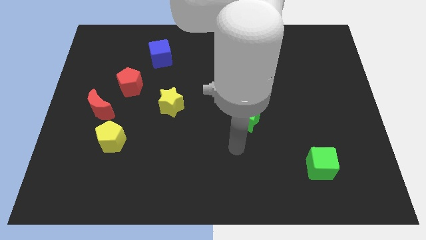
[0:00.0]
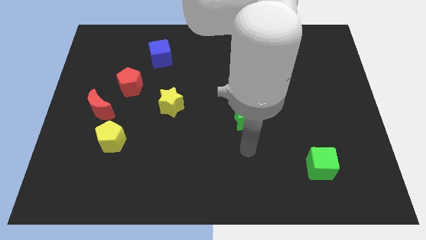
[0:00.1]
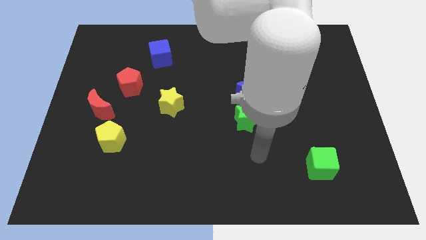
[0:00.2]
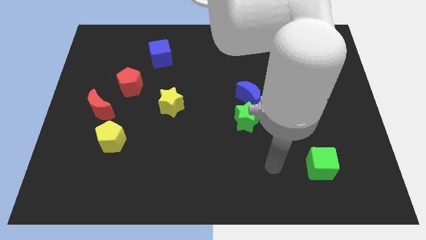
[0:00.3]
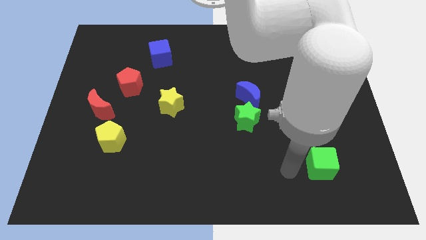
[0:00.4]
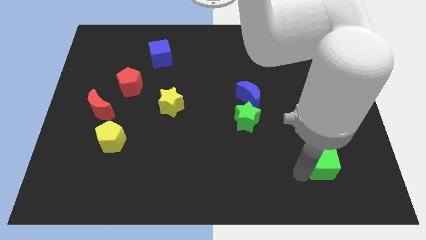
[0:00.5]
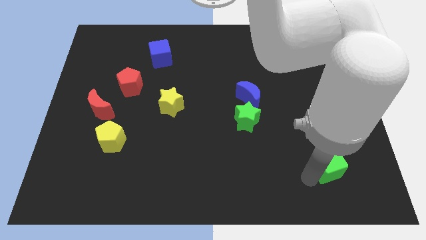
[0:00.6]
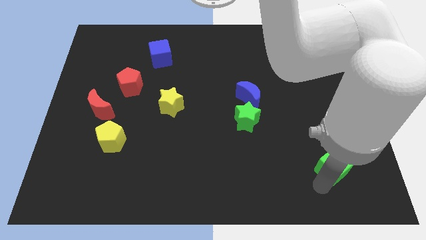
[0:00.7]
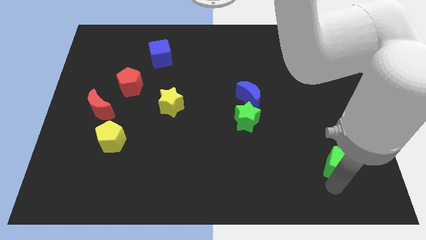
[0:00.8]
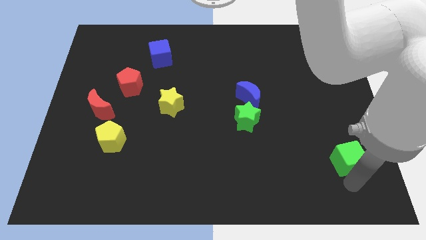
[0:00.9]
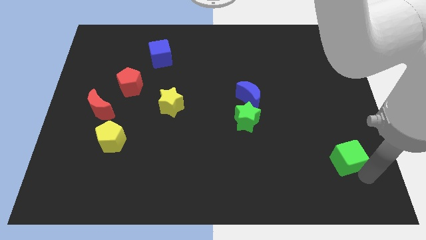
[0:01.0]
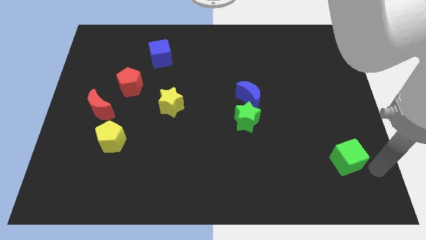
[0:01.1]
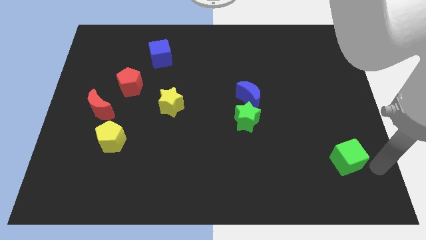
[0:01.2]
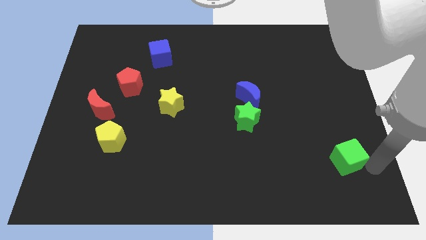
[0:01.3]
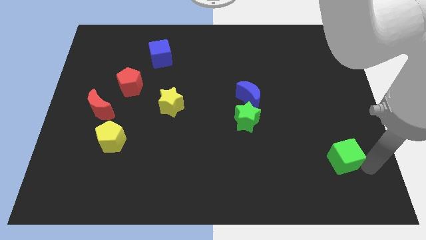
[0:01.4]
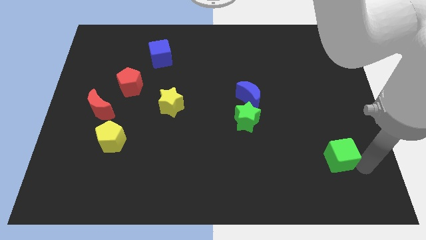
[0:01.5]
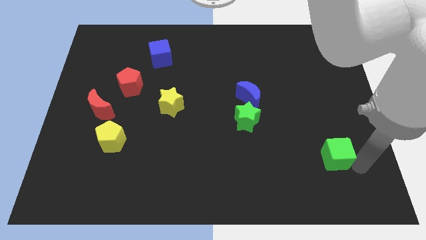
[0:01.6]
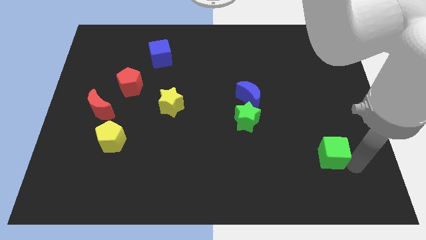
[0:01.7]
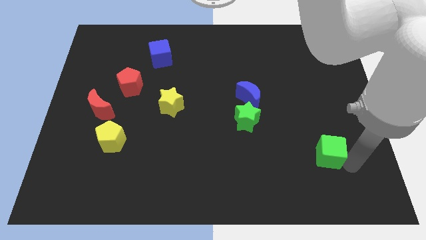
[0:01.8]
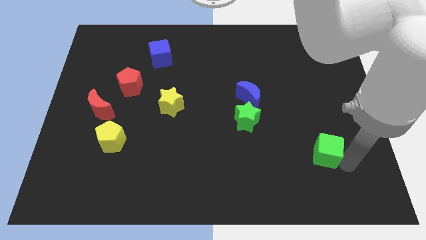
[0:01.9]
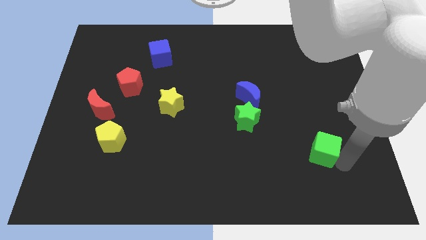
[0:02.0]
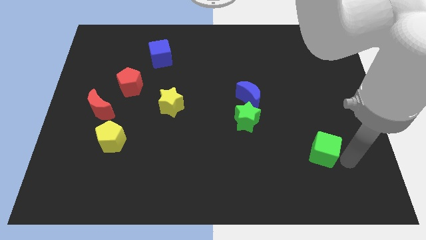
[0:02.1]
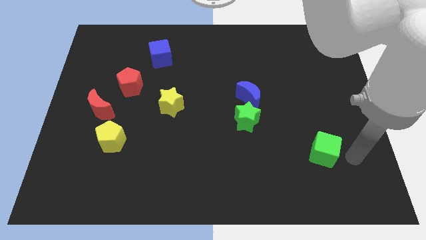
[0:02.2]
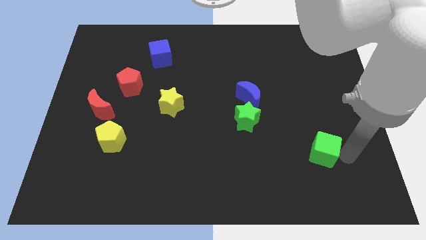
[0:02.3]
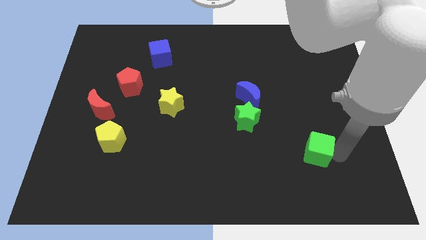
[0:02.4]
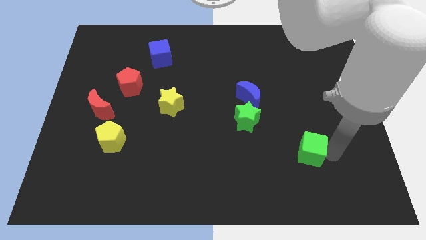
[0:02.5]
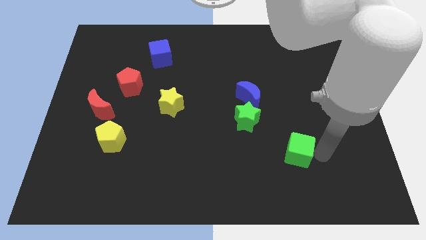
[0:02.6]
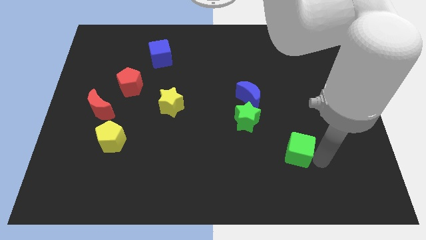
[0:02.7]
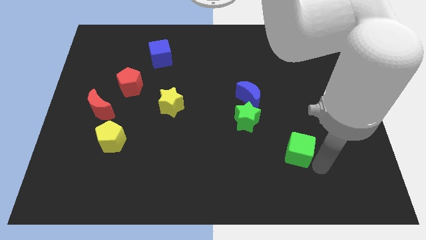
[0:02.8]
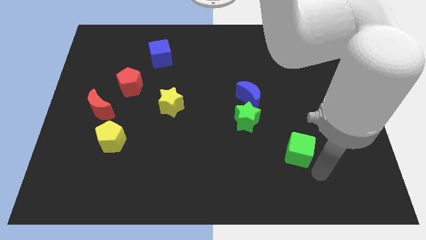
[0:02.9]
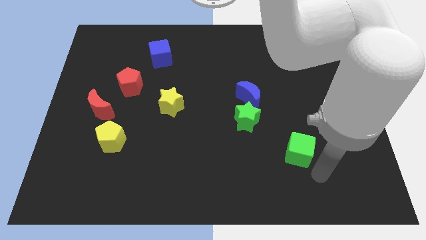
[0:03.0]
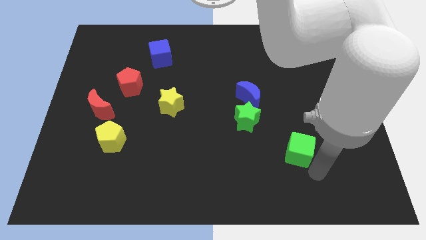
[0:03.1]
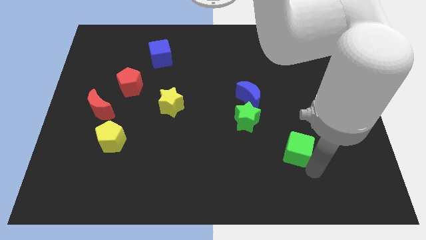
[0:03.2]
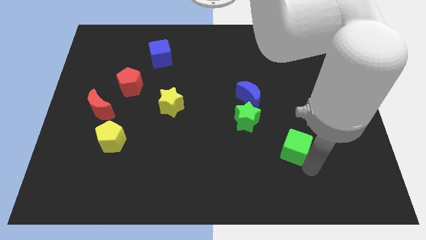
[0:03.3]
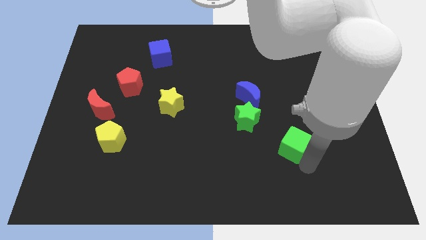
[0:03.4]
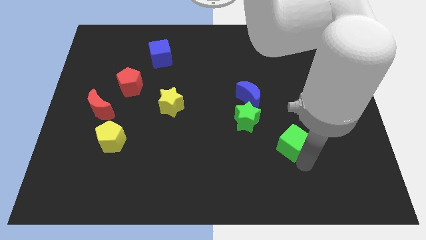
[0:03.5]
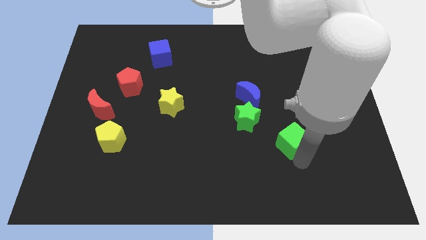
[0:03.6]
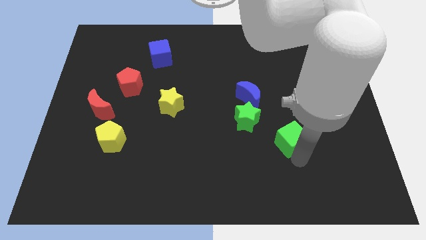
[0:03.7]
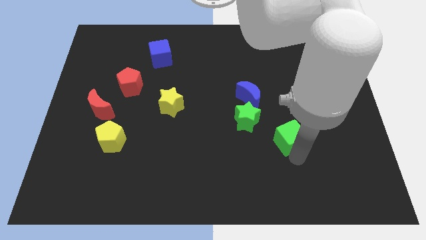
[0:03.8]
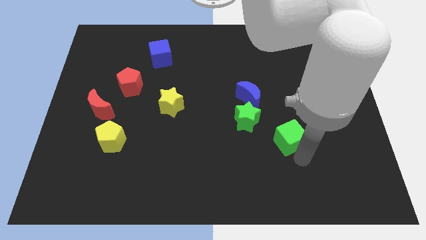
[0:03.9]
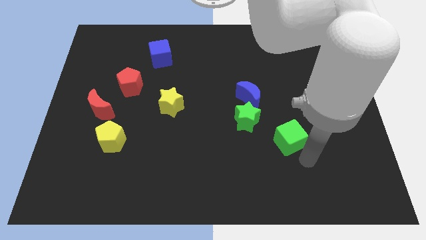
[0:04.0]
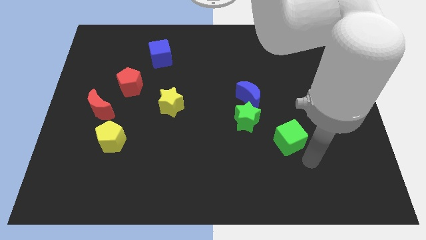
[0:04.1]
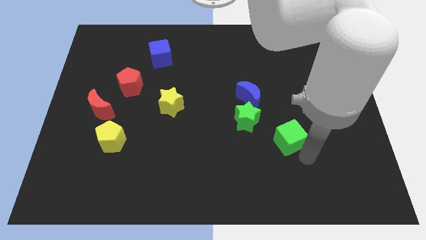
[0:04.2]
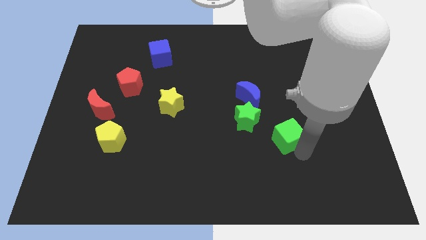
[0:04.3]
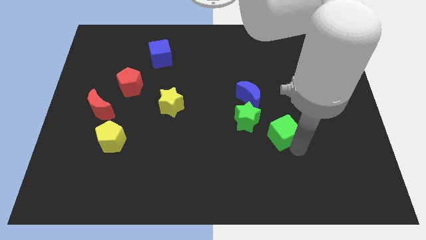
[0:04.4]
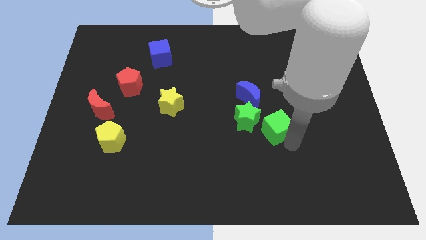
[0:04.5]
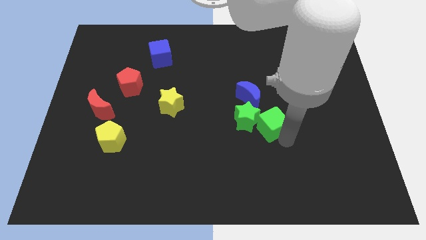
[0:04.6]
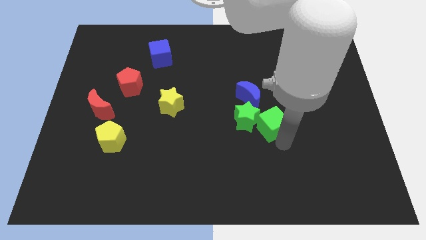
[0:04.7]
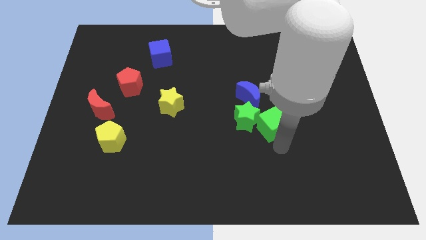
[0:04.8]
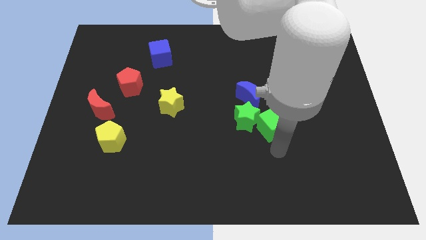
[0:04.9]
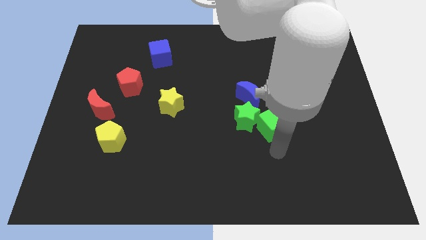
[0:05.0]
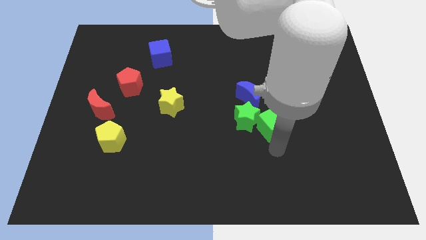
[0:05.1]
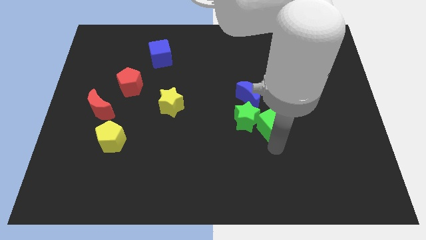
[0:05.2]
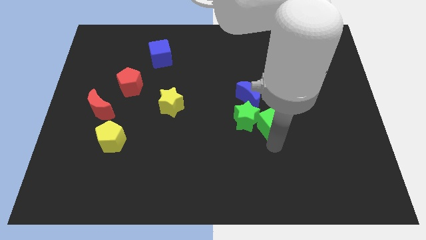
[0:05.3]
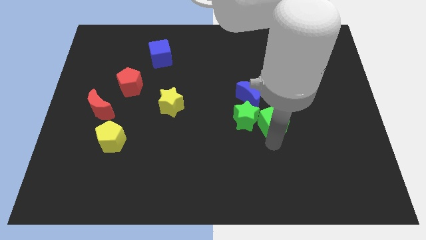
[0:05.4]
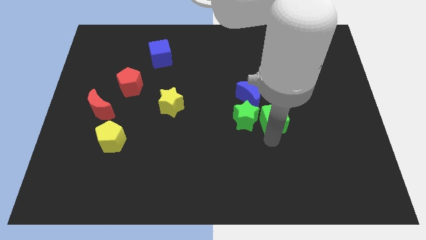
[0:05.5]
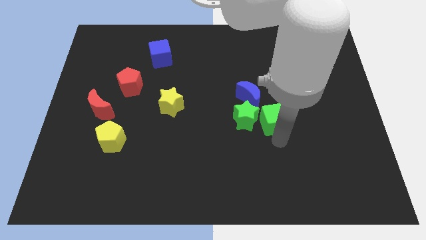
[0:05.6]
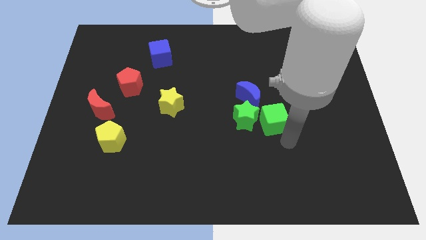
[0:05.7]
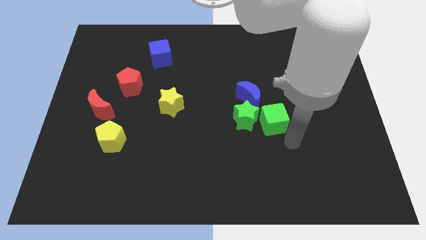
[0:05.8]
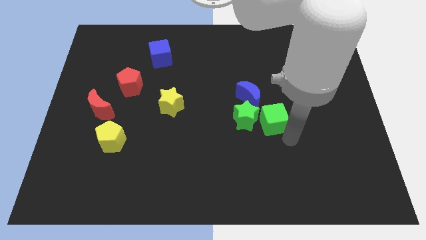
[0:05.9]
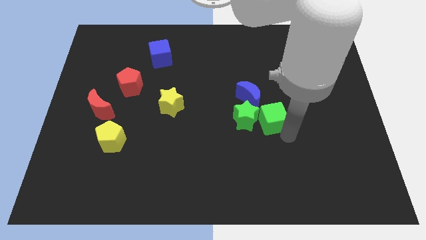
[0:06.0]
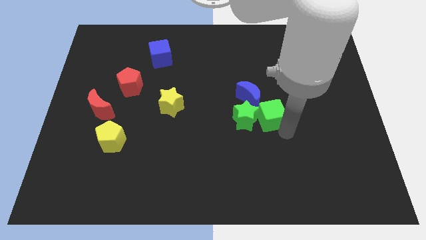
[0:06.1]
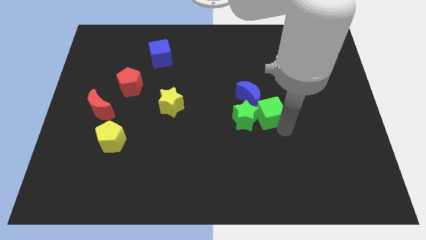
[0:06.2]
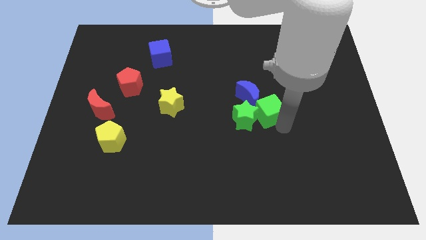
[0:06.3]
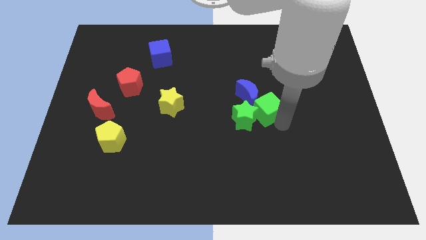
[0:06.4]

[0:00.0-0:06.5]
slide the green cube close to the blue moon
